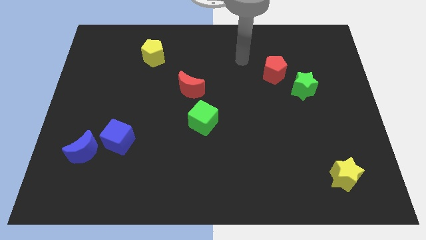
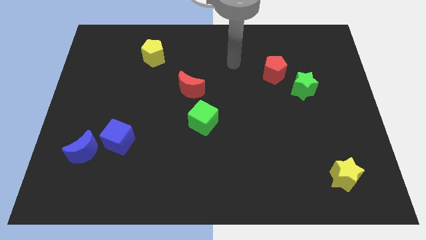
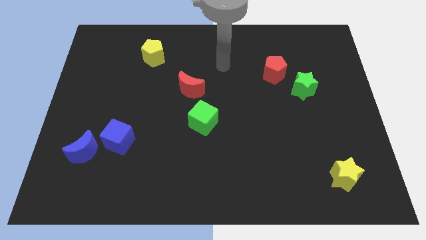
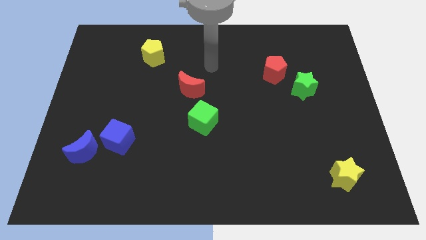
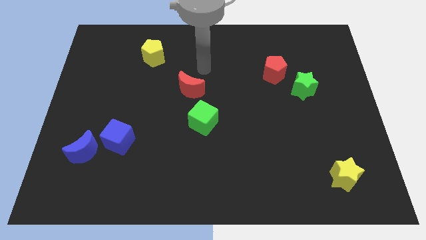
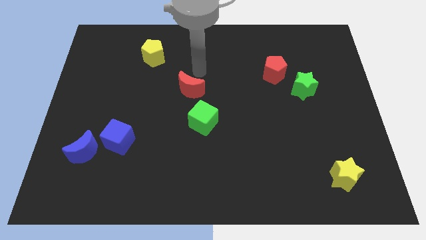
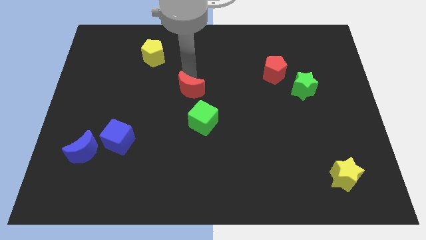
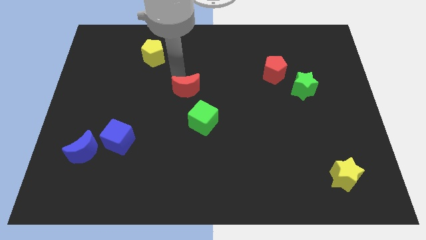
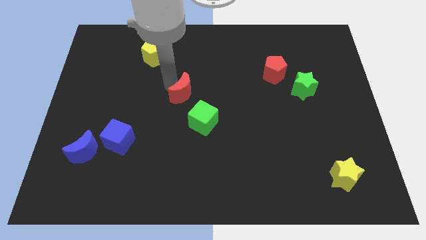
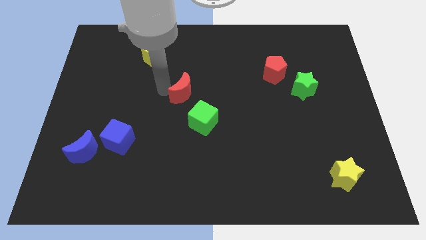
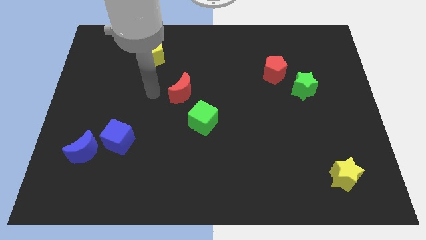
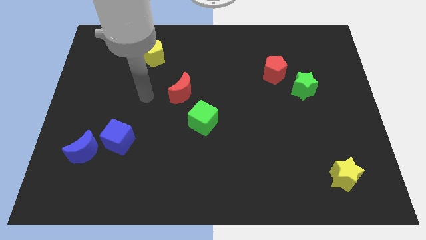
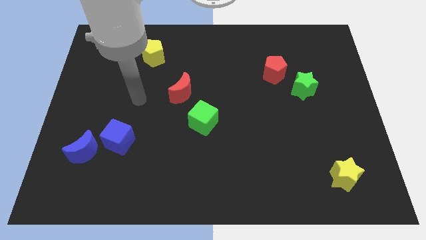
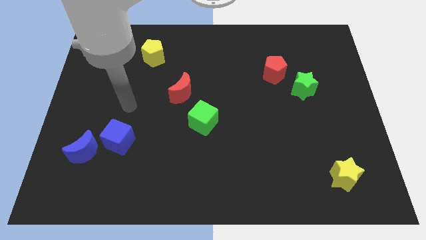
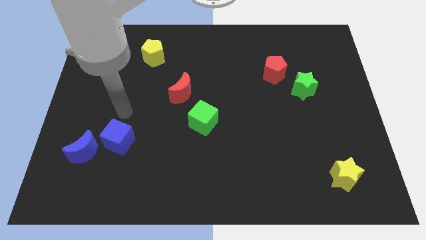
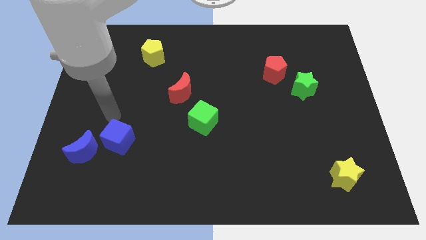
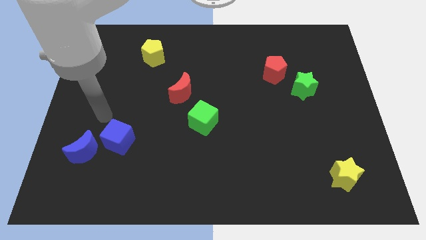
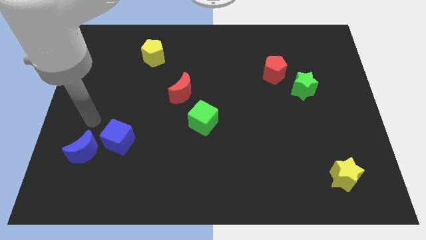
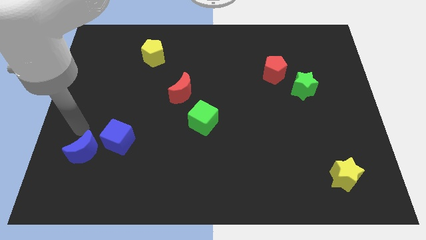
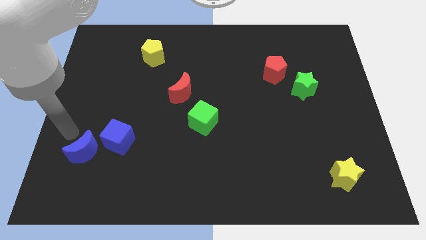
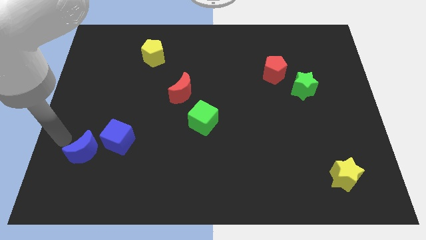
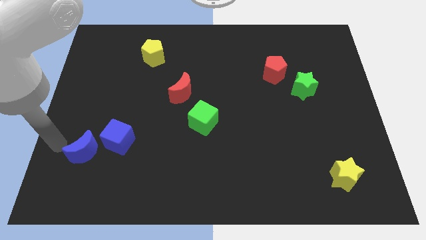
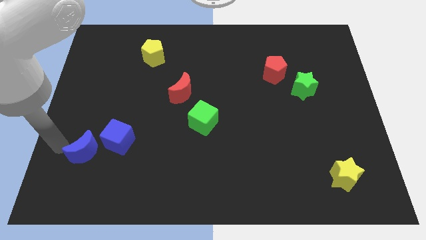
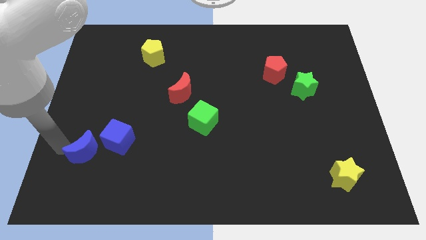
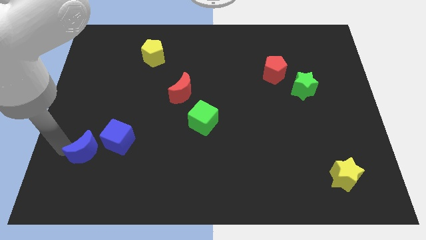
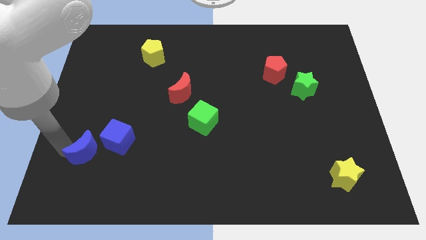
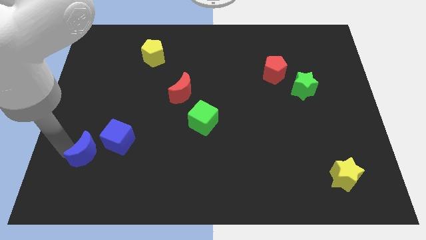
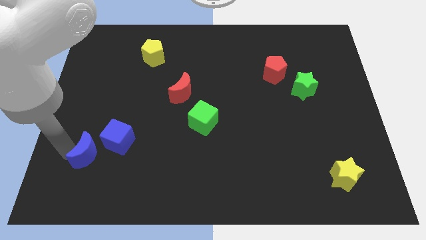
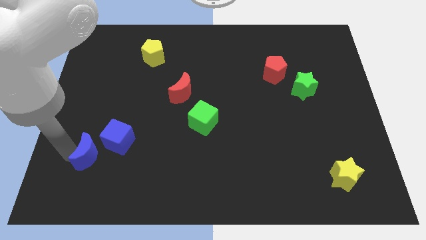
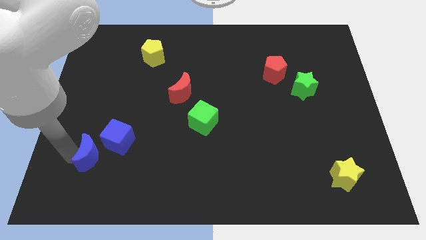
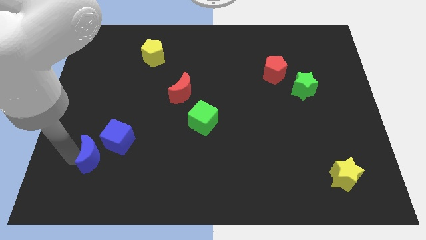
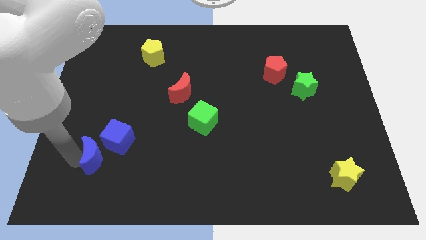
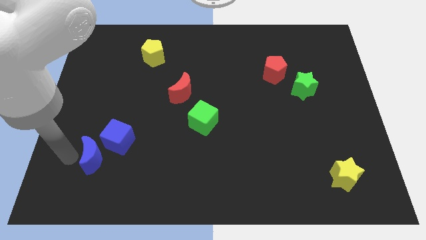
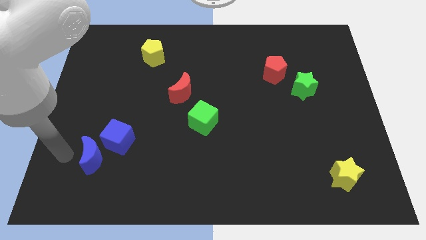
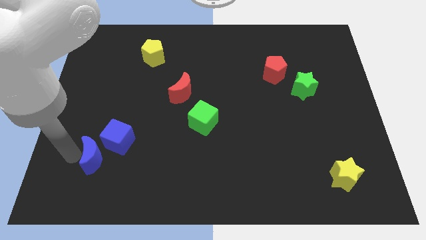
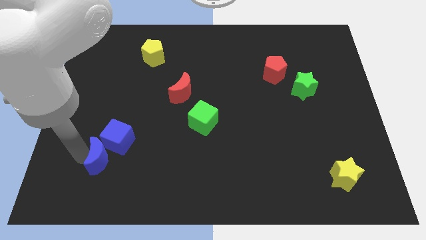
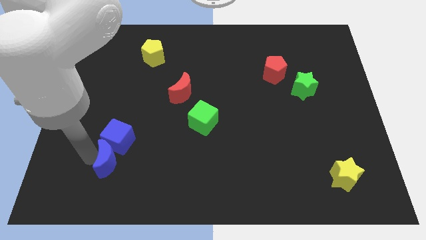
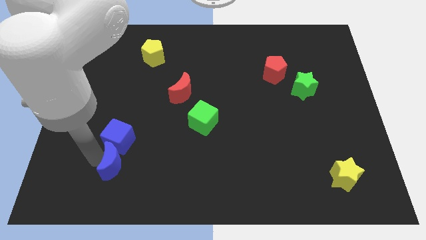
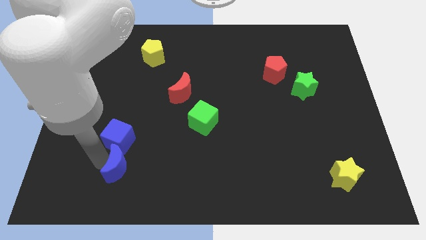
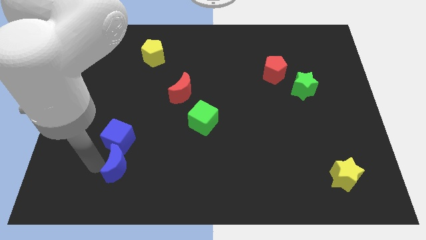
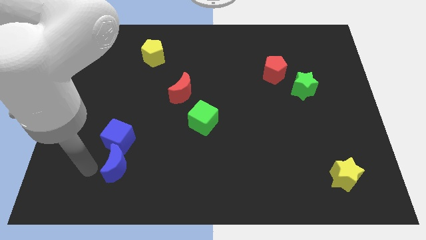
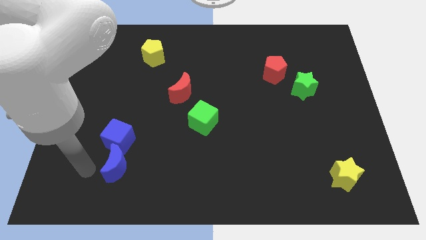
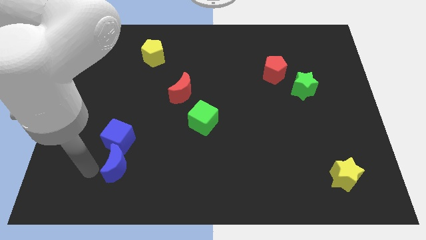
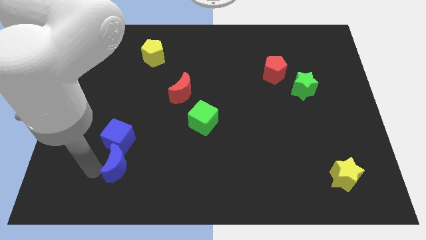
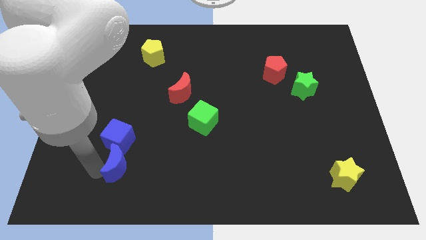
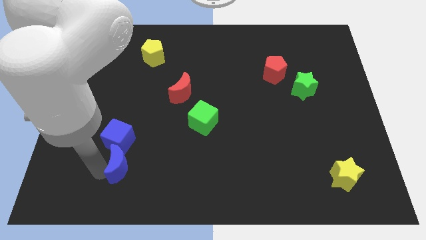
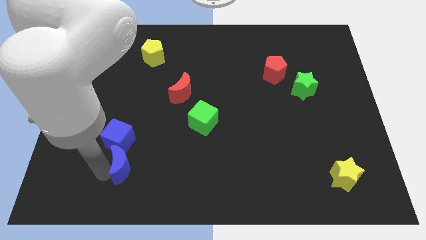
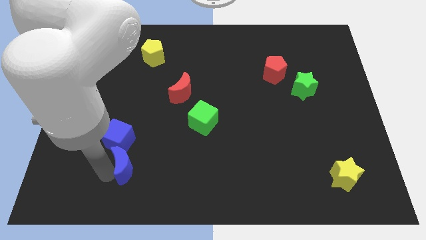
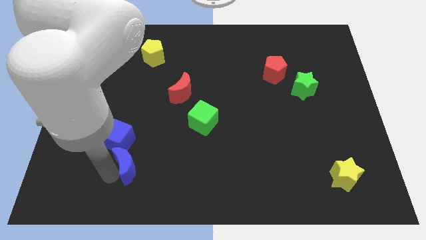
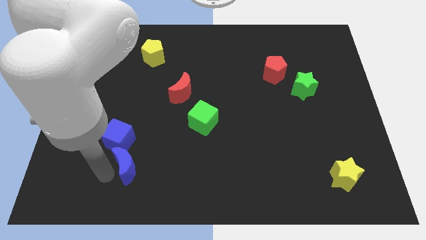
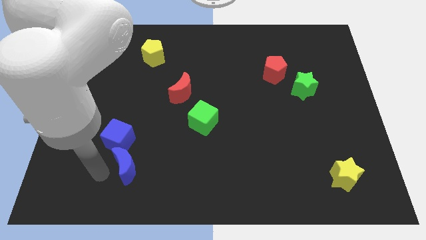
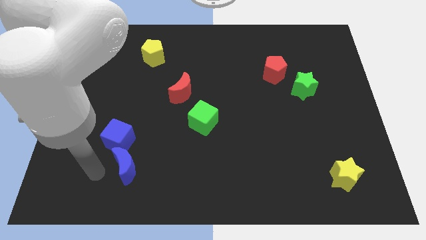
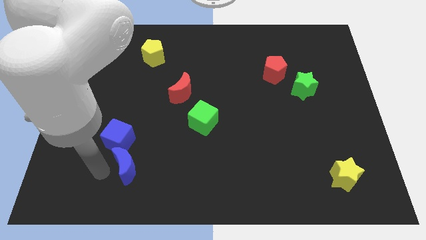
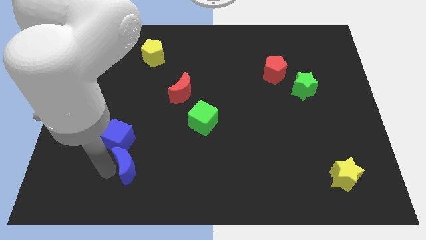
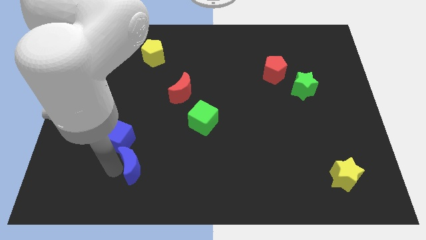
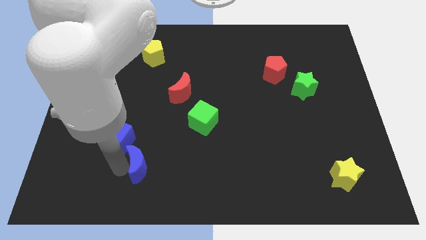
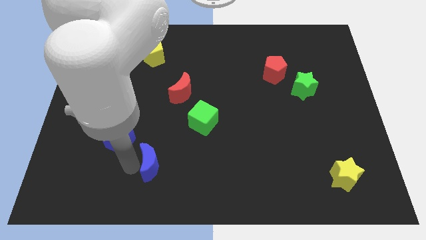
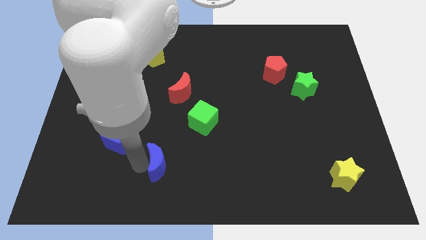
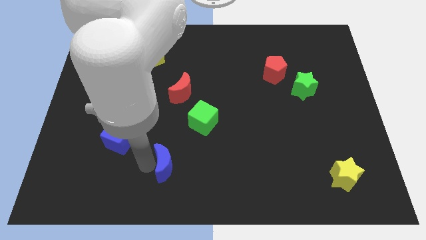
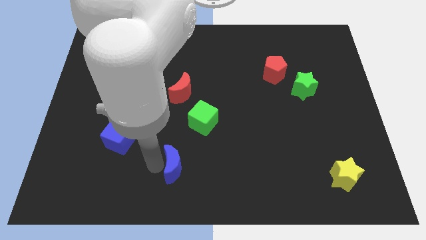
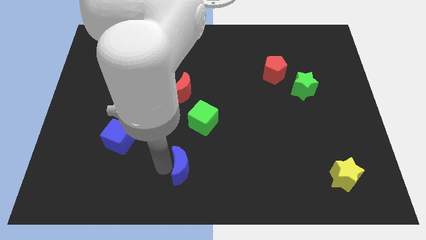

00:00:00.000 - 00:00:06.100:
slide the blue moon right

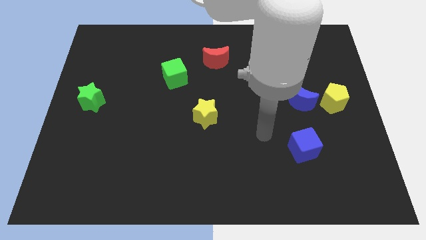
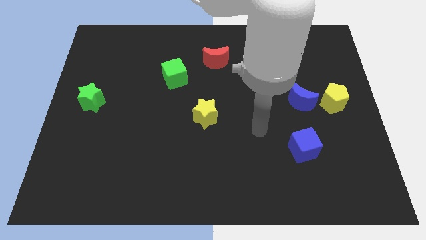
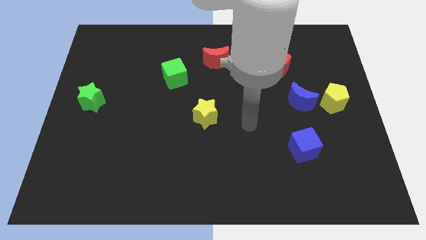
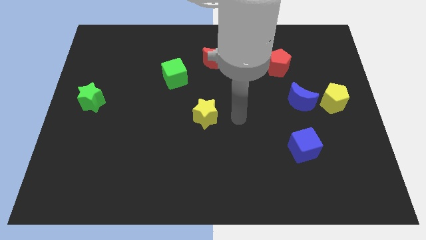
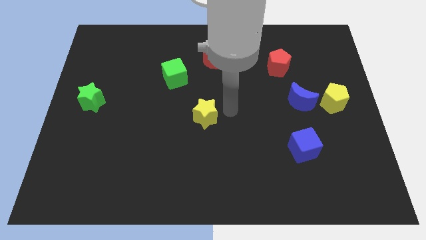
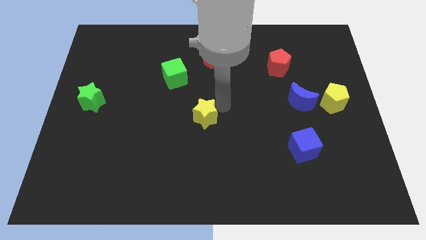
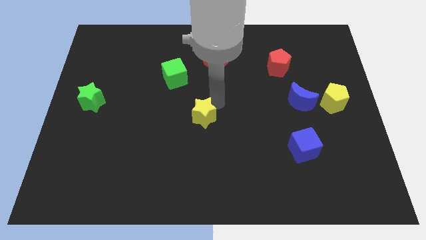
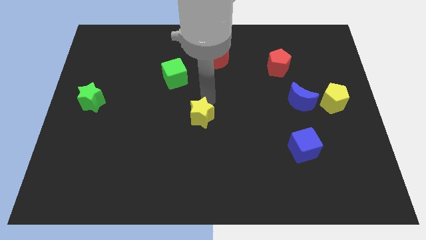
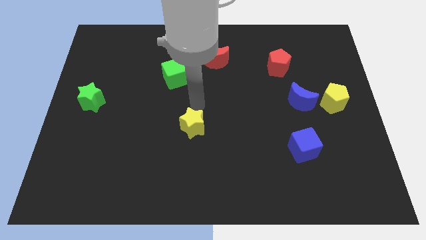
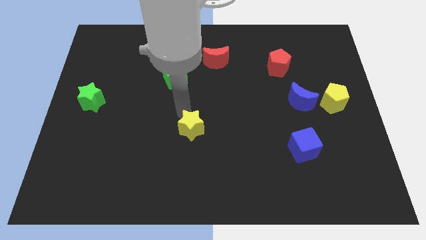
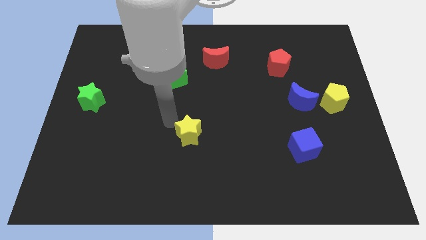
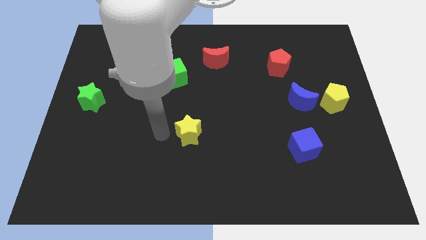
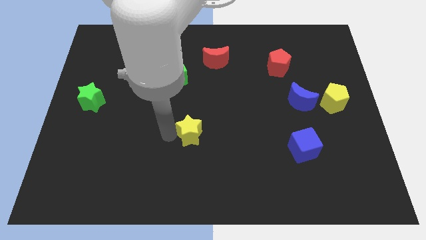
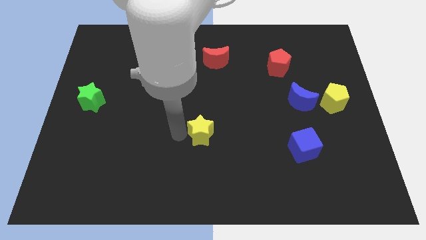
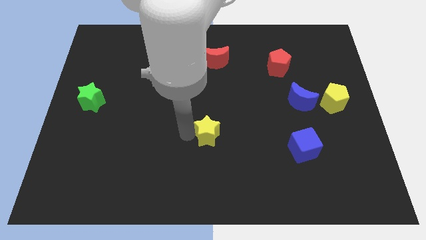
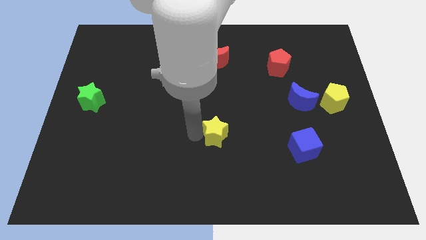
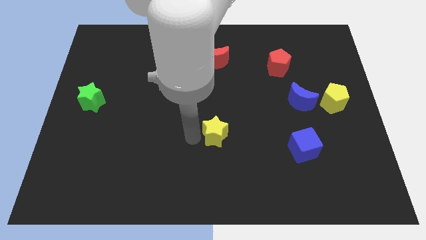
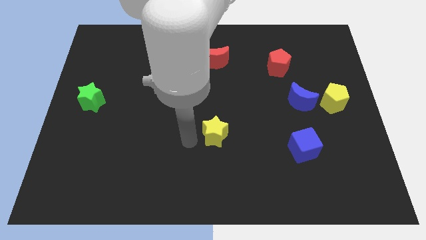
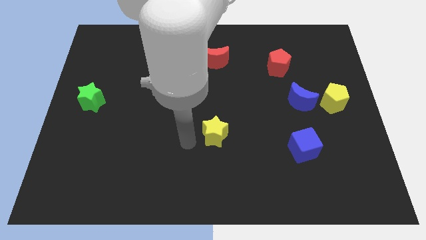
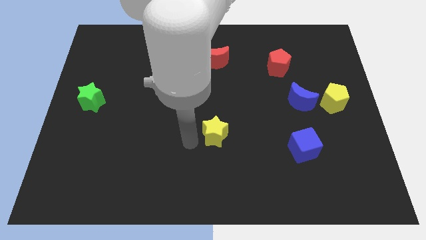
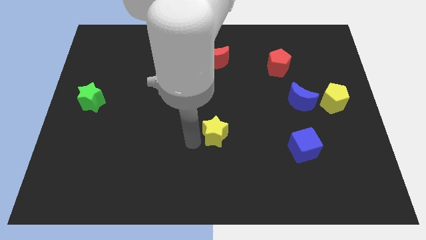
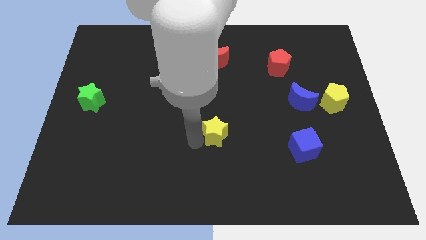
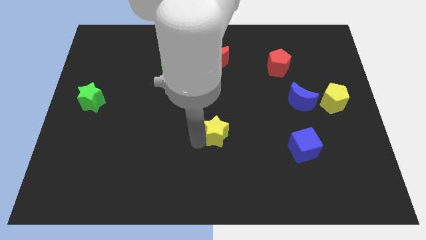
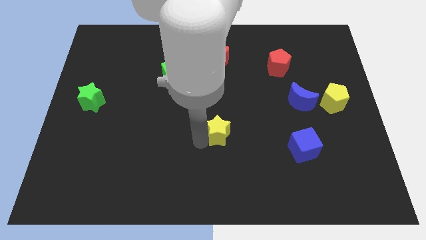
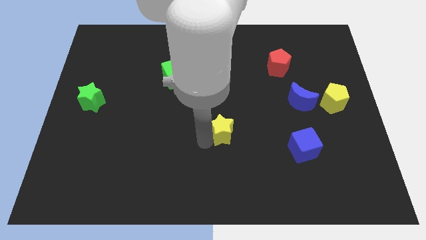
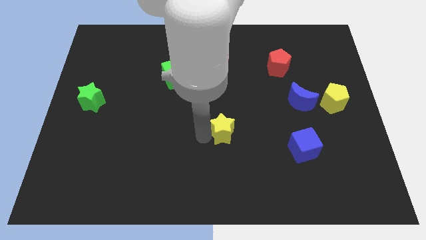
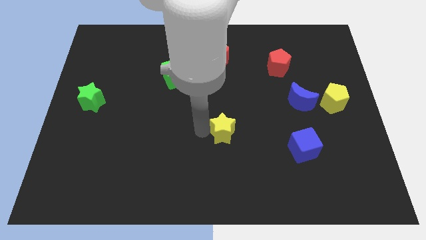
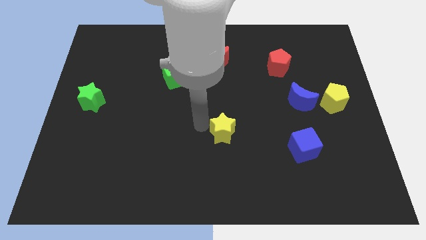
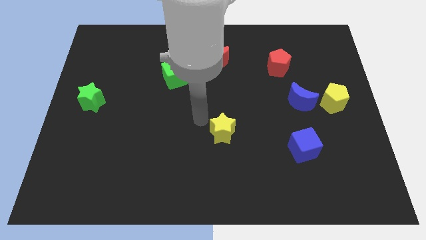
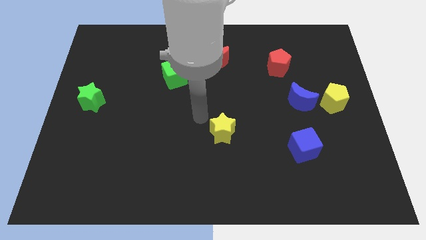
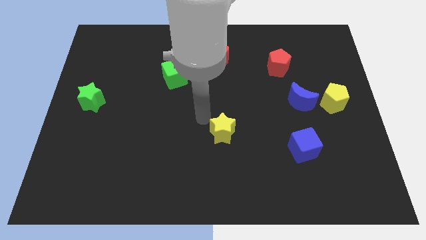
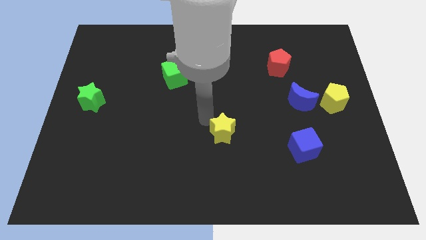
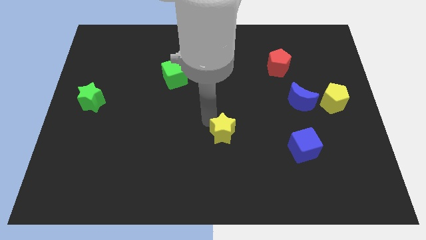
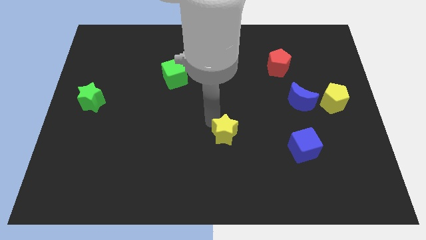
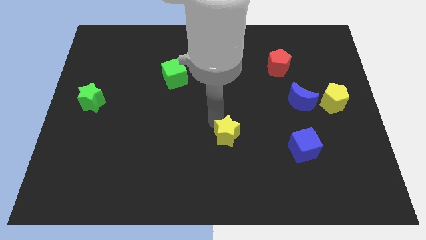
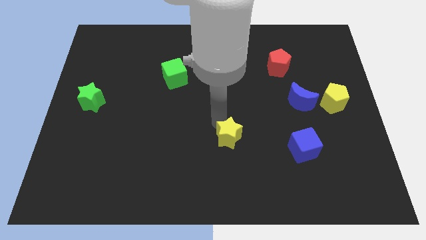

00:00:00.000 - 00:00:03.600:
slightly push the yellow star downwards and then to the right
